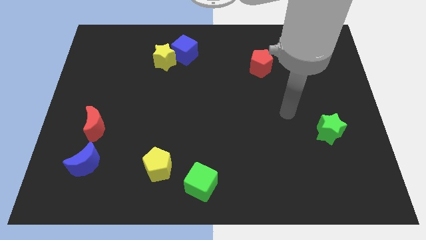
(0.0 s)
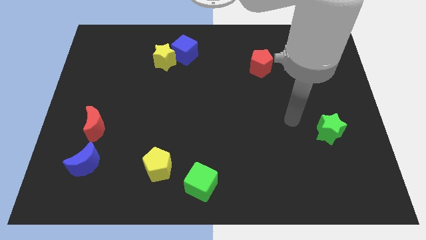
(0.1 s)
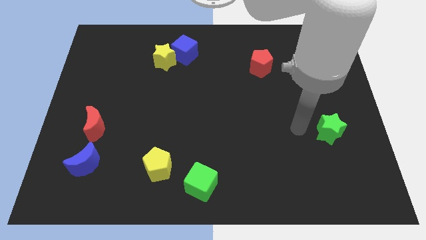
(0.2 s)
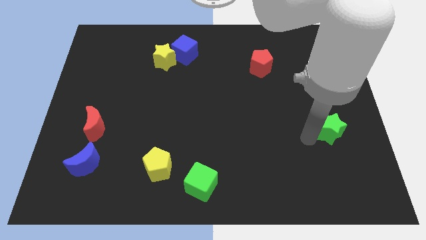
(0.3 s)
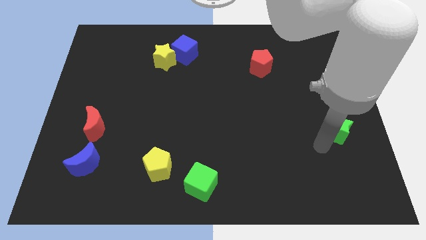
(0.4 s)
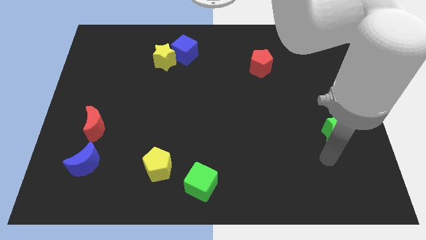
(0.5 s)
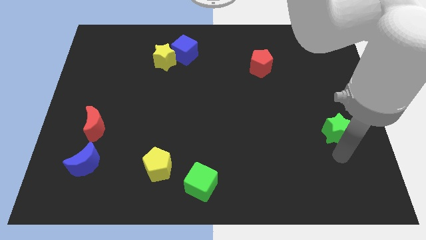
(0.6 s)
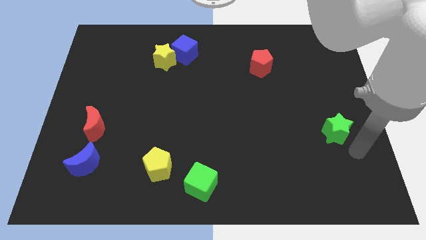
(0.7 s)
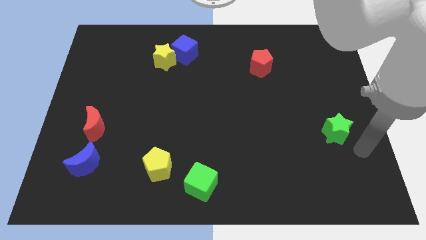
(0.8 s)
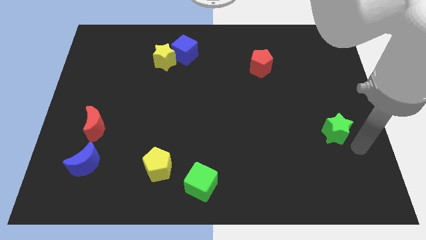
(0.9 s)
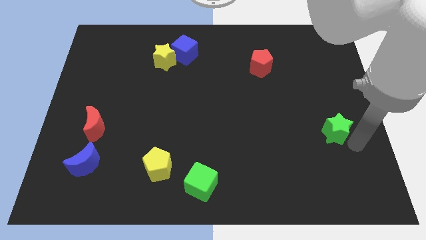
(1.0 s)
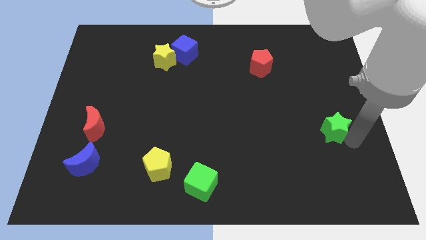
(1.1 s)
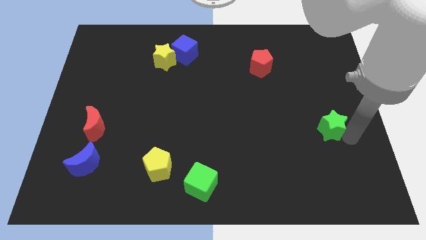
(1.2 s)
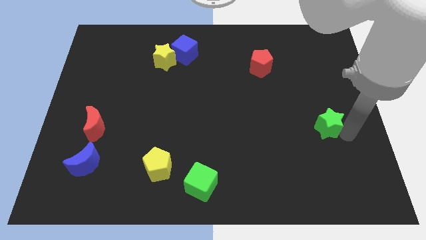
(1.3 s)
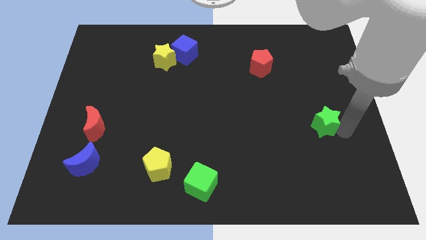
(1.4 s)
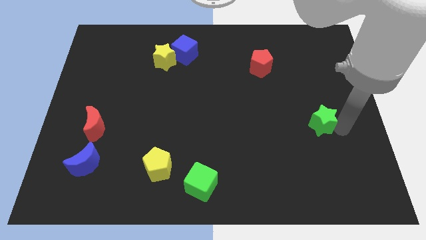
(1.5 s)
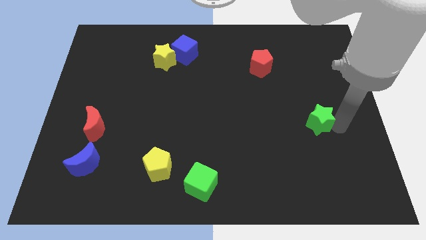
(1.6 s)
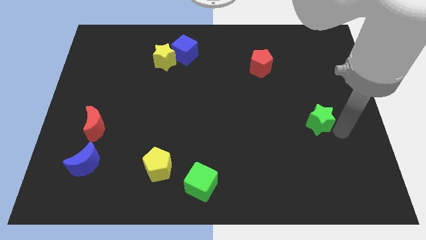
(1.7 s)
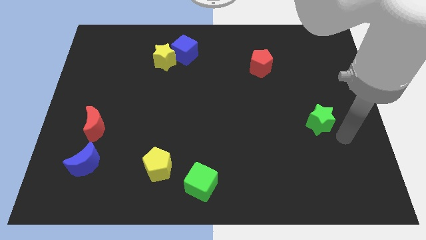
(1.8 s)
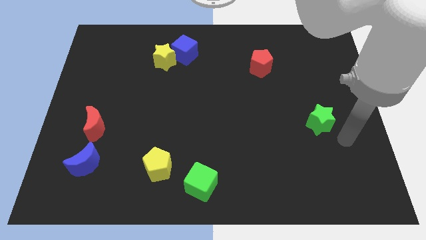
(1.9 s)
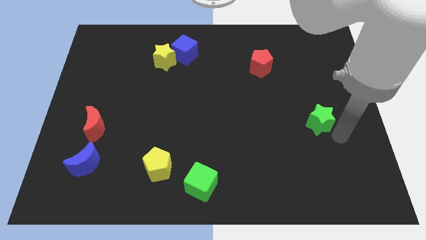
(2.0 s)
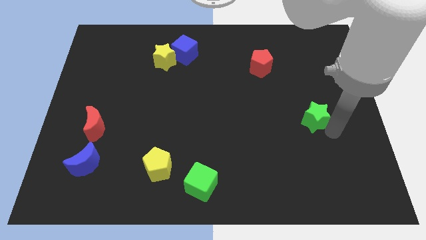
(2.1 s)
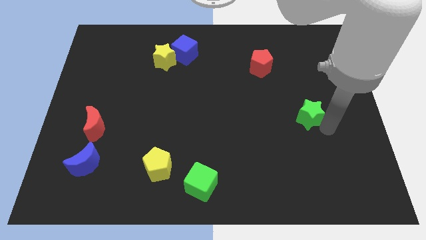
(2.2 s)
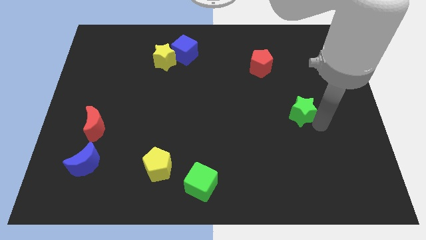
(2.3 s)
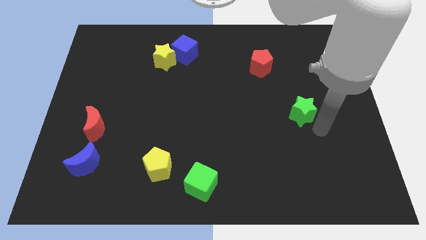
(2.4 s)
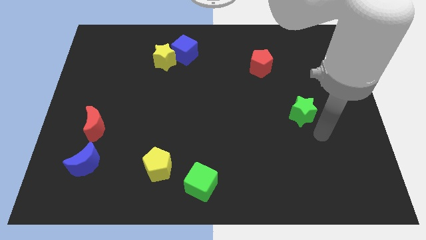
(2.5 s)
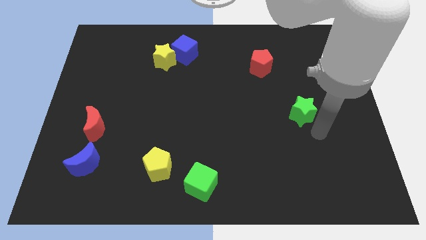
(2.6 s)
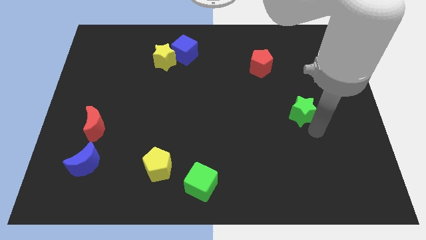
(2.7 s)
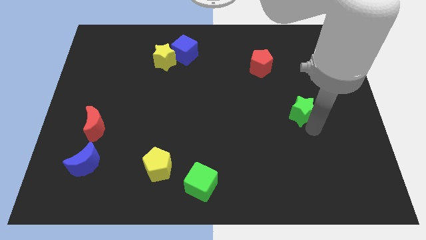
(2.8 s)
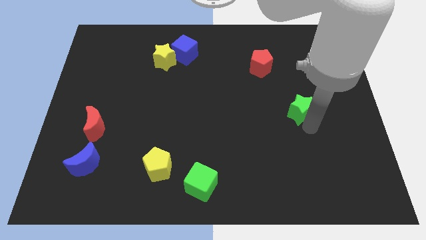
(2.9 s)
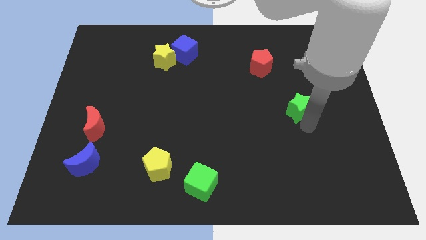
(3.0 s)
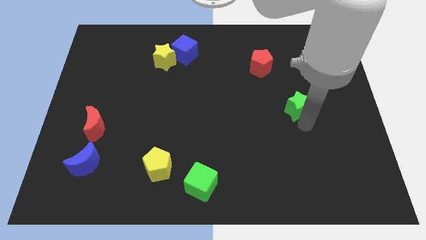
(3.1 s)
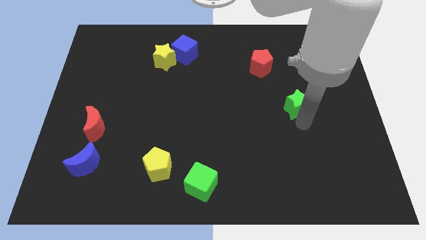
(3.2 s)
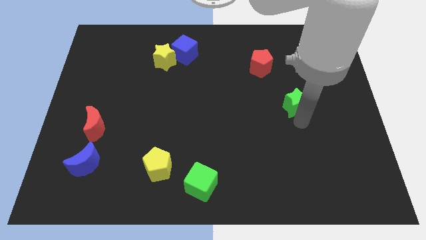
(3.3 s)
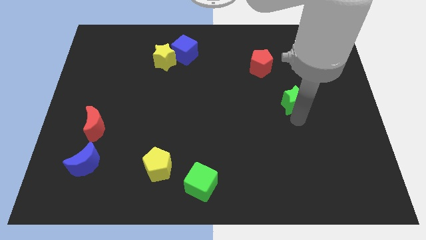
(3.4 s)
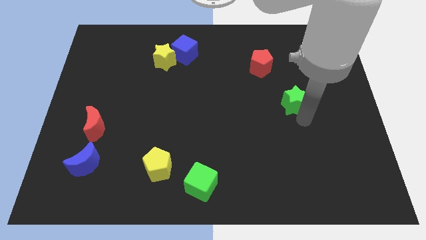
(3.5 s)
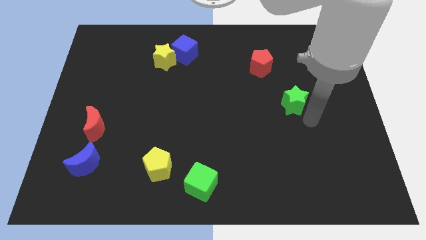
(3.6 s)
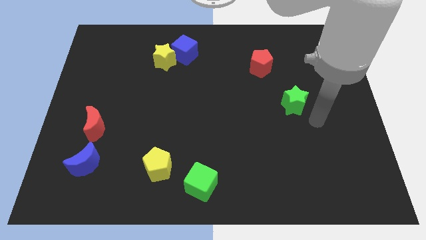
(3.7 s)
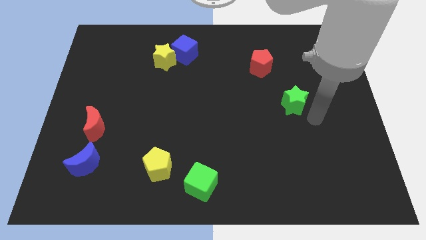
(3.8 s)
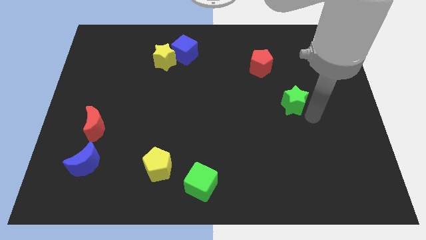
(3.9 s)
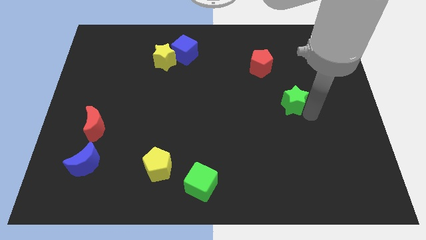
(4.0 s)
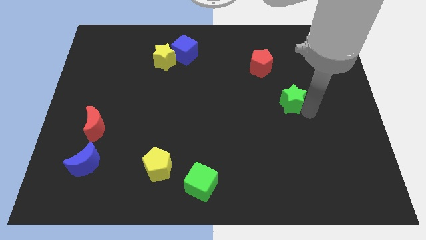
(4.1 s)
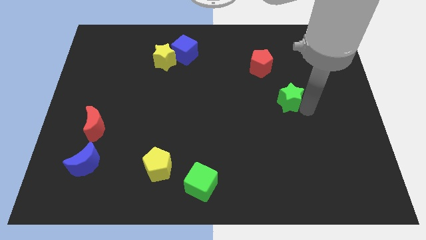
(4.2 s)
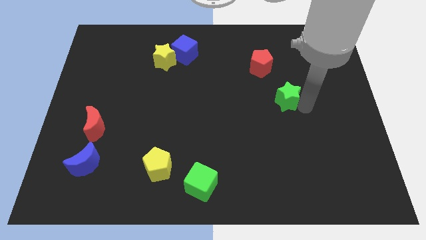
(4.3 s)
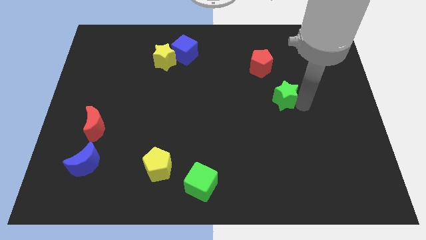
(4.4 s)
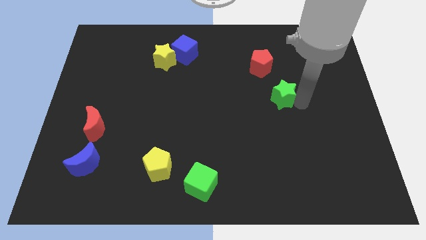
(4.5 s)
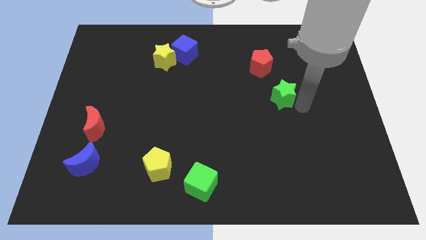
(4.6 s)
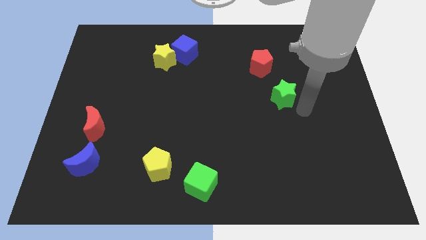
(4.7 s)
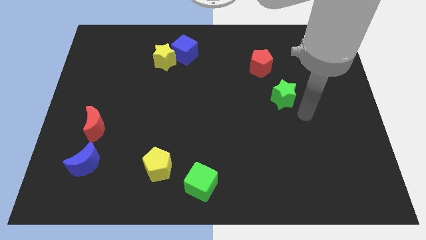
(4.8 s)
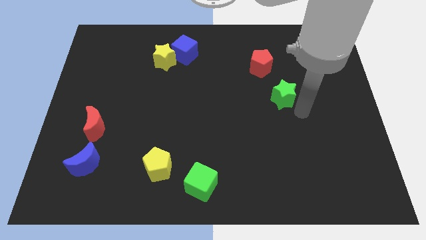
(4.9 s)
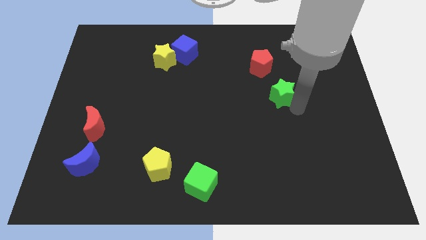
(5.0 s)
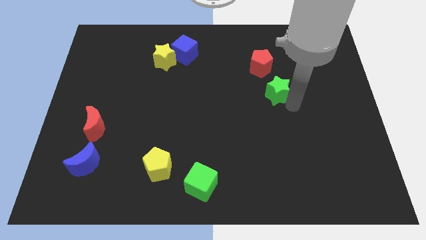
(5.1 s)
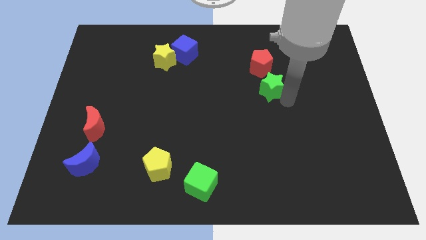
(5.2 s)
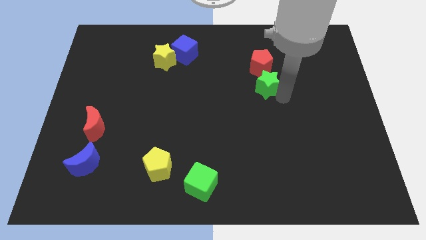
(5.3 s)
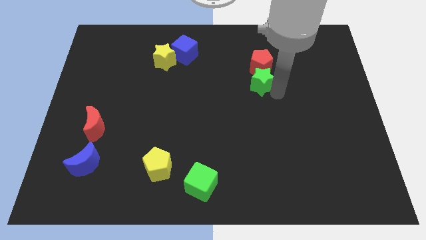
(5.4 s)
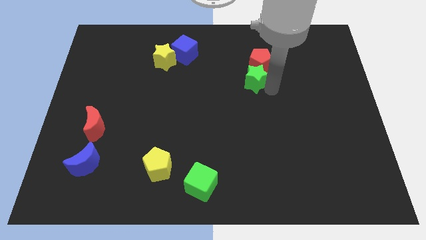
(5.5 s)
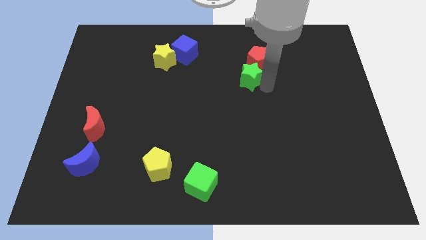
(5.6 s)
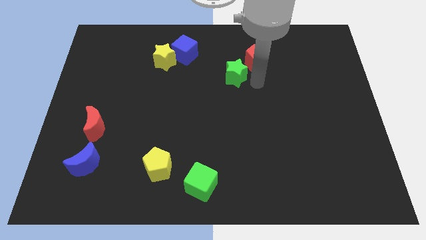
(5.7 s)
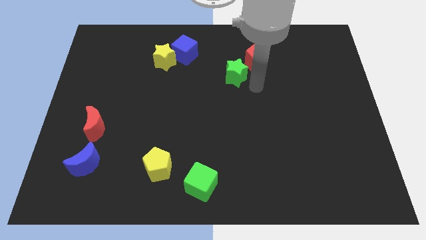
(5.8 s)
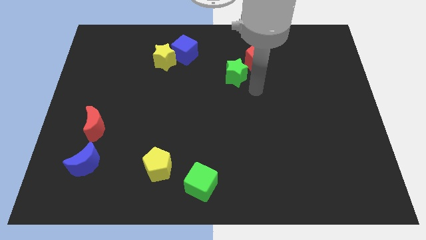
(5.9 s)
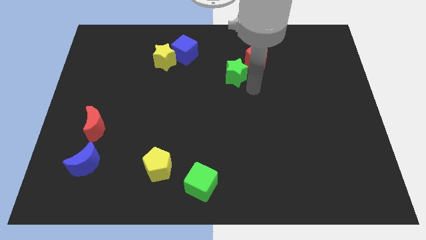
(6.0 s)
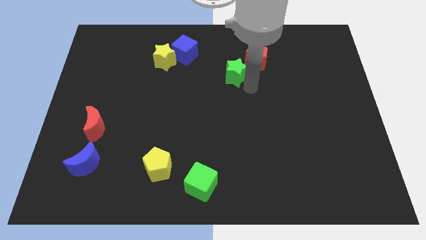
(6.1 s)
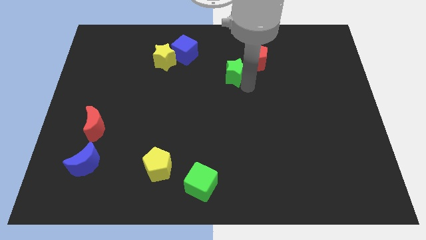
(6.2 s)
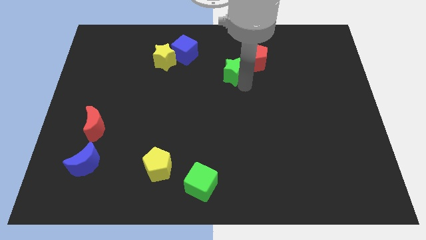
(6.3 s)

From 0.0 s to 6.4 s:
push the green star to the left side of the red pentagon
